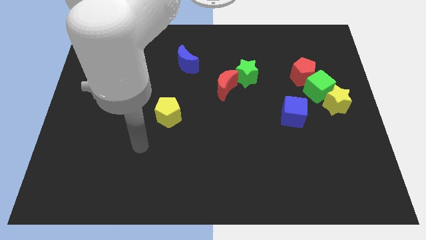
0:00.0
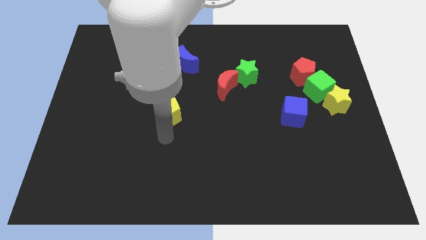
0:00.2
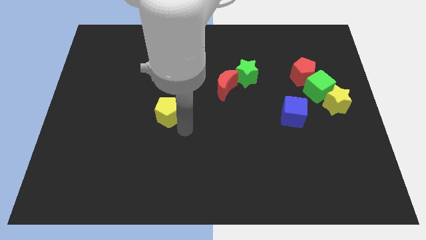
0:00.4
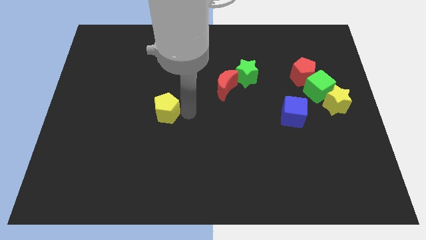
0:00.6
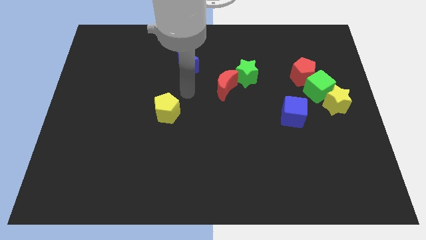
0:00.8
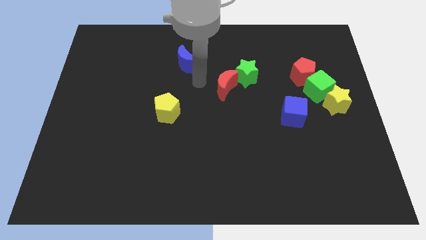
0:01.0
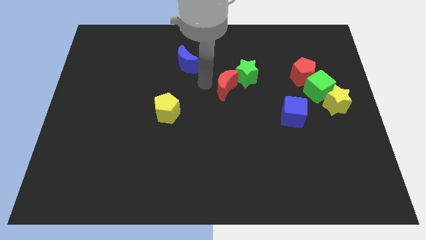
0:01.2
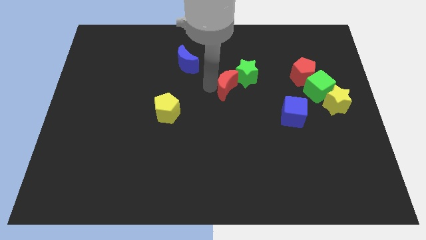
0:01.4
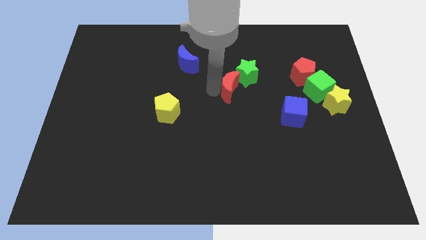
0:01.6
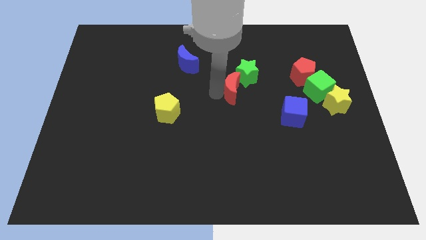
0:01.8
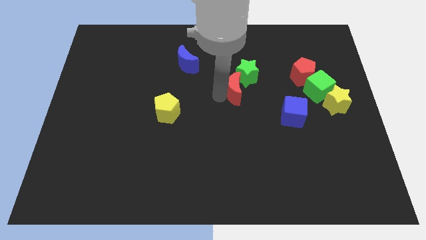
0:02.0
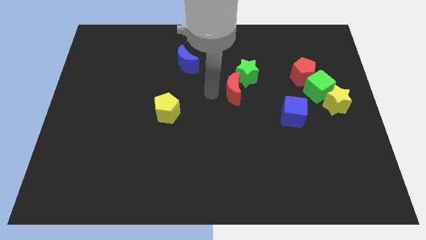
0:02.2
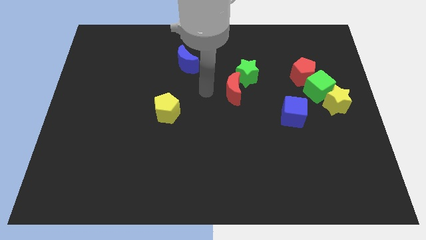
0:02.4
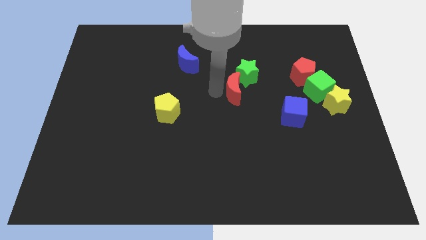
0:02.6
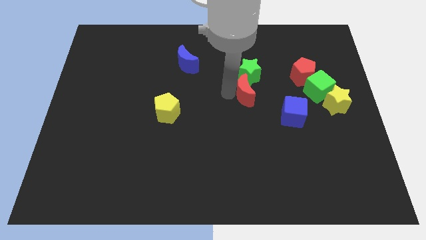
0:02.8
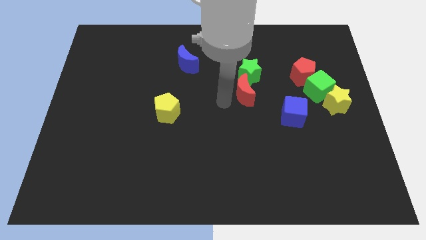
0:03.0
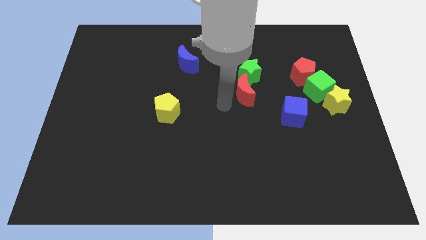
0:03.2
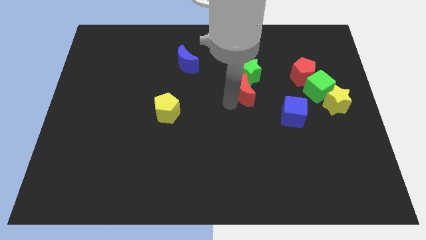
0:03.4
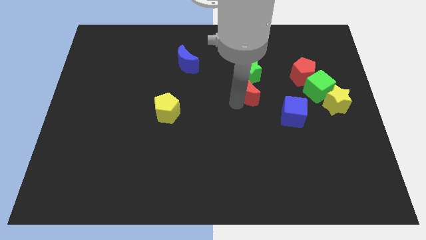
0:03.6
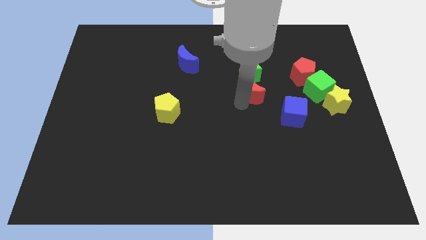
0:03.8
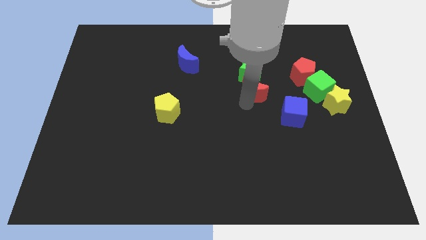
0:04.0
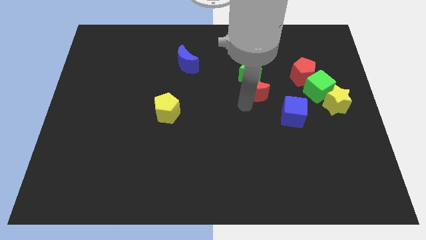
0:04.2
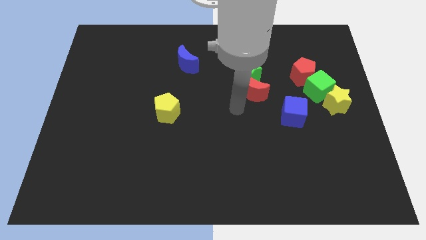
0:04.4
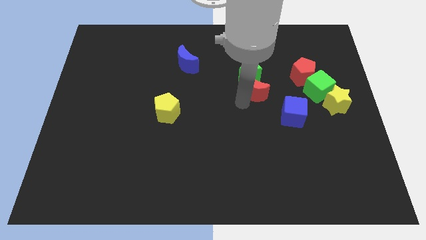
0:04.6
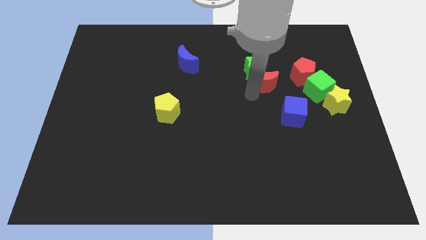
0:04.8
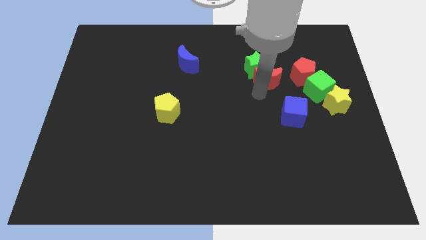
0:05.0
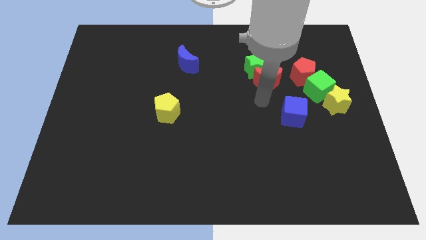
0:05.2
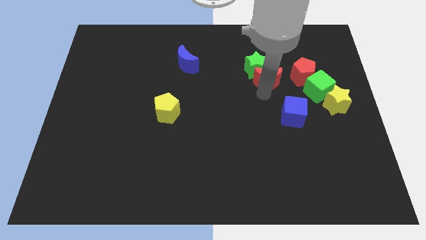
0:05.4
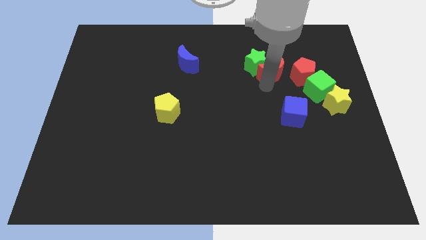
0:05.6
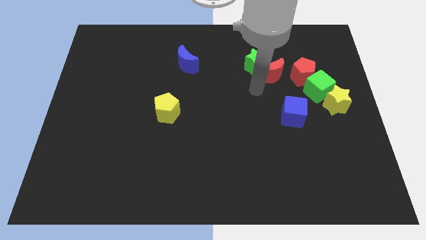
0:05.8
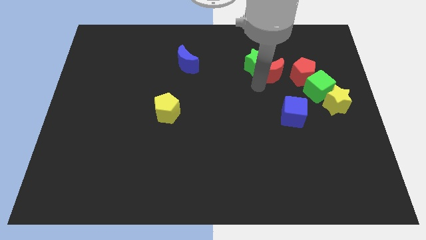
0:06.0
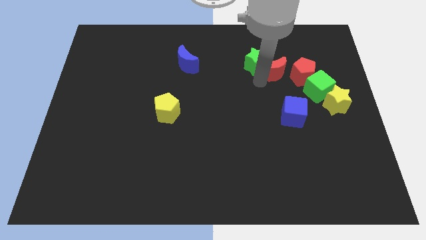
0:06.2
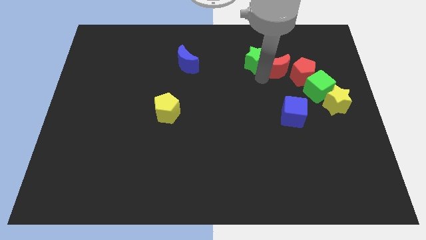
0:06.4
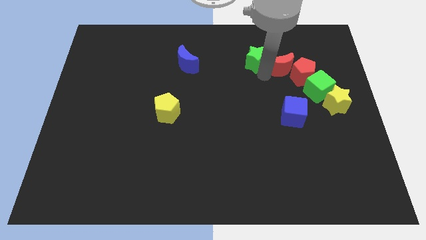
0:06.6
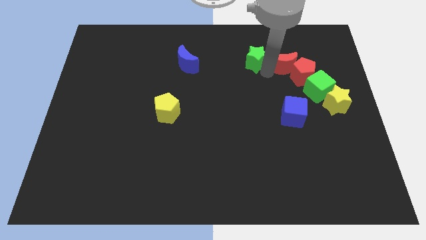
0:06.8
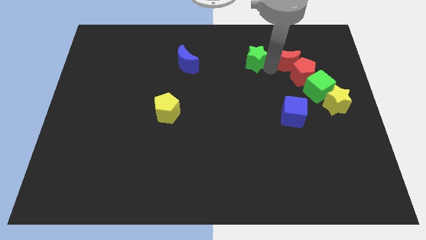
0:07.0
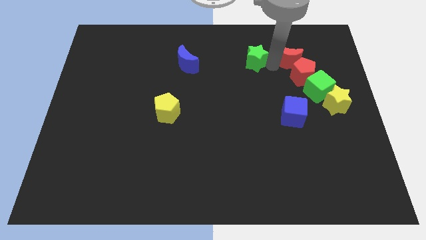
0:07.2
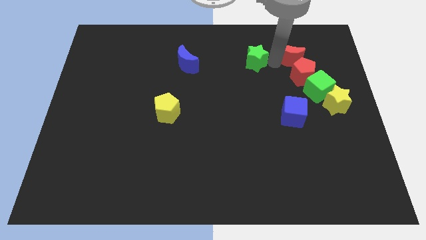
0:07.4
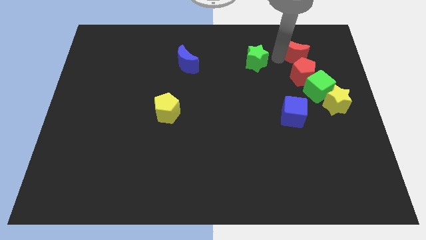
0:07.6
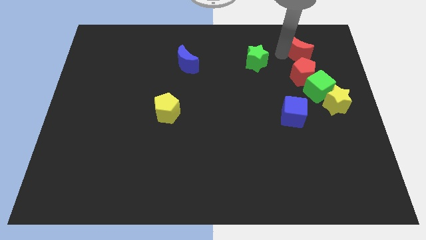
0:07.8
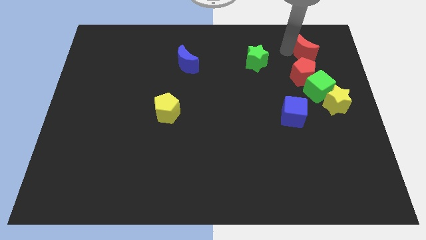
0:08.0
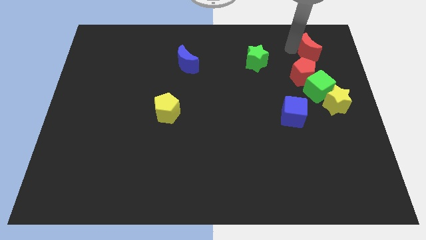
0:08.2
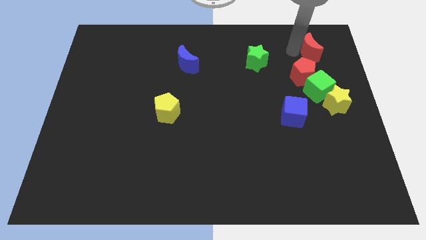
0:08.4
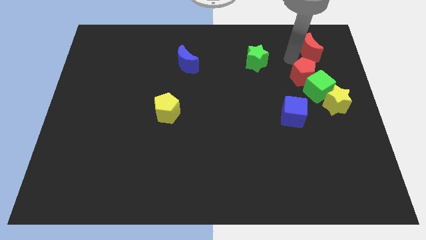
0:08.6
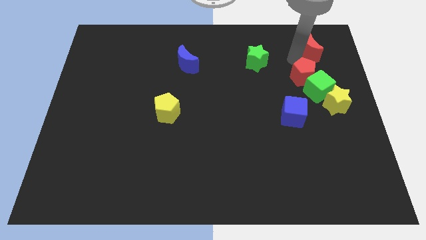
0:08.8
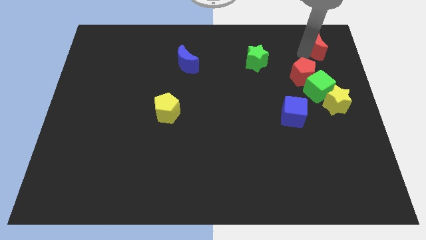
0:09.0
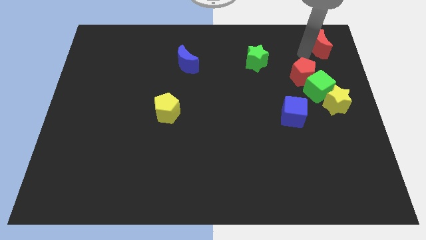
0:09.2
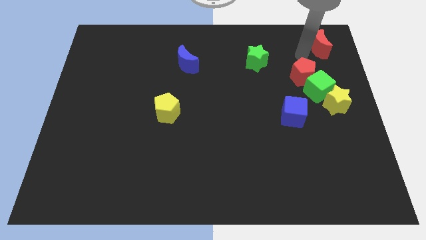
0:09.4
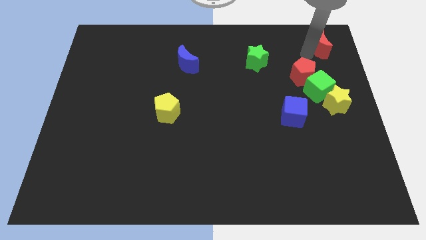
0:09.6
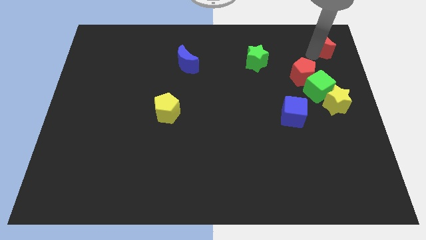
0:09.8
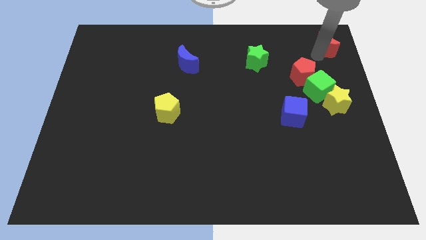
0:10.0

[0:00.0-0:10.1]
put the red moon to the top right
